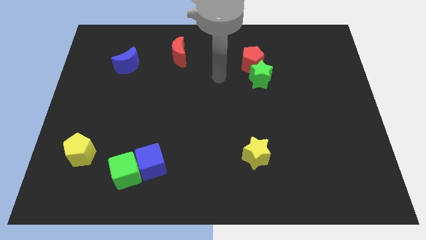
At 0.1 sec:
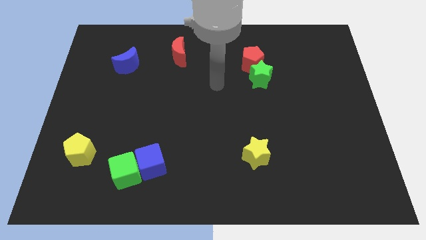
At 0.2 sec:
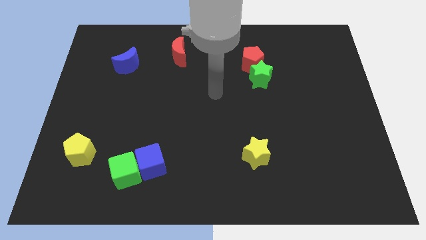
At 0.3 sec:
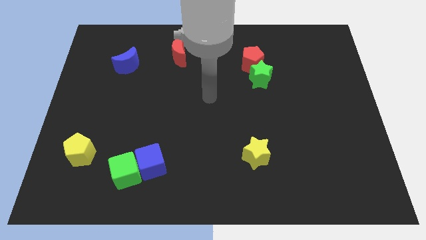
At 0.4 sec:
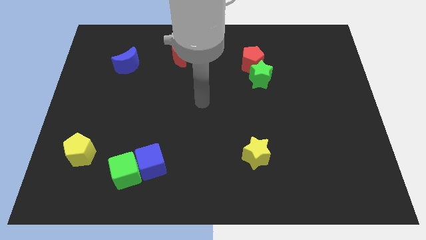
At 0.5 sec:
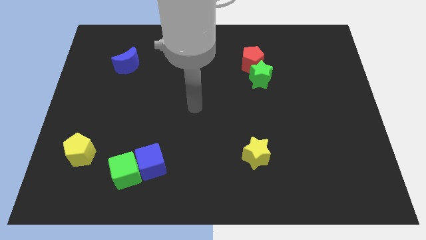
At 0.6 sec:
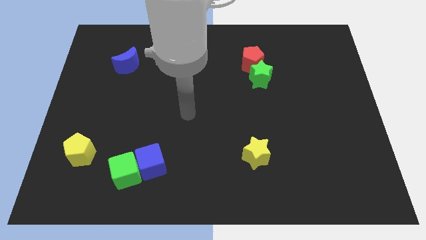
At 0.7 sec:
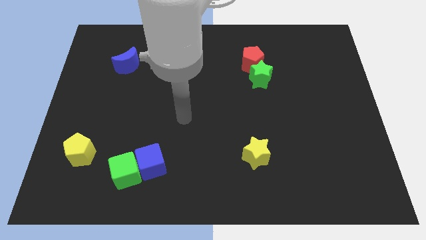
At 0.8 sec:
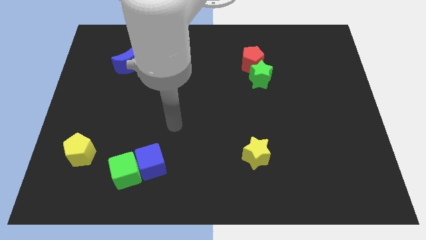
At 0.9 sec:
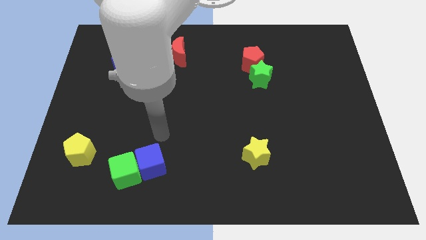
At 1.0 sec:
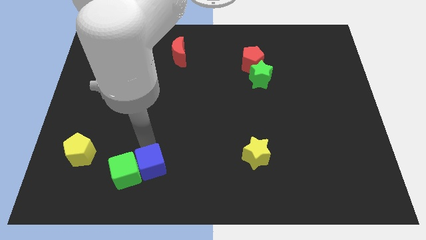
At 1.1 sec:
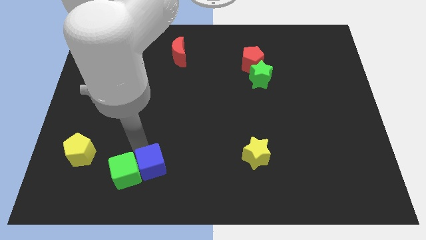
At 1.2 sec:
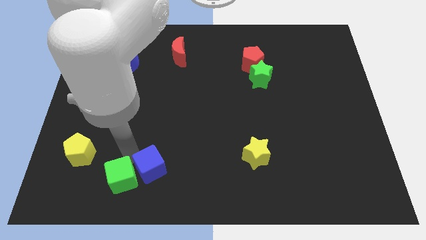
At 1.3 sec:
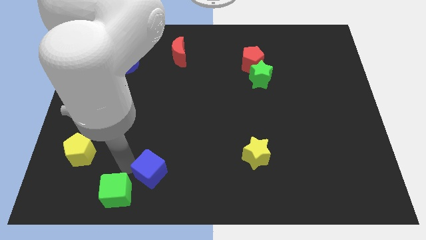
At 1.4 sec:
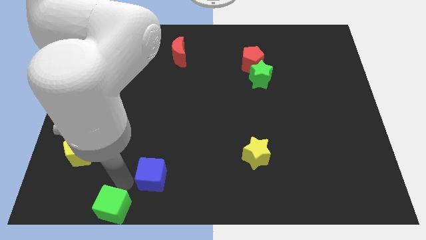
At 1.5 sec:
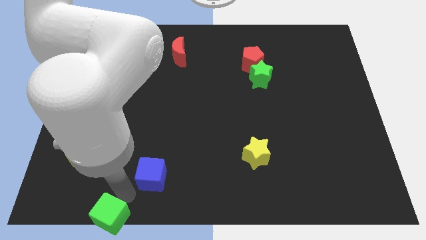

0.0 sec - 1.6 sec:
move the blue cube away from the green cube

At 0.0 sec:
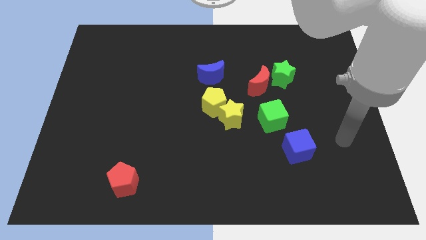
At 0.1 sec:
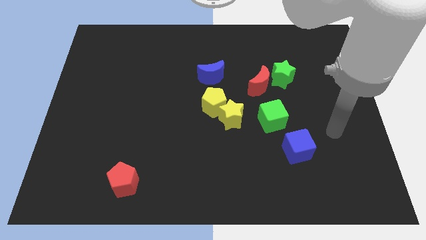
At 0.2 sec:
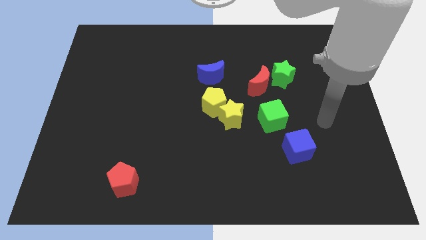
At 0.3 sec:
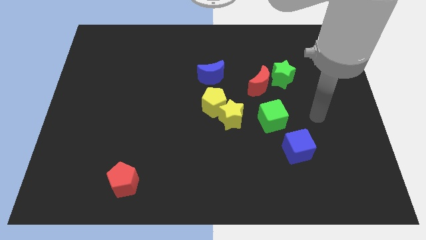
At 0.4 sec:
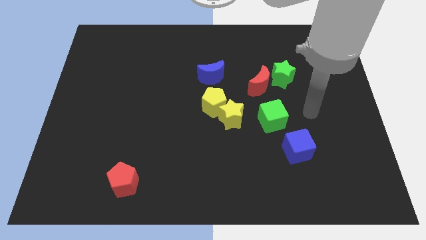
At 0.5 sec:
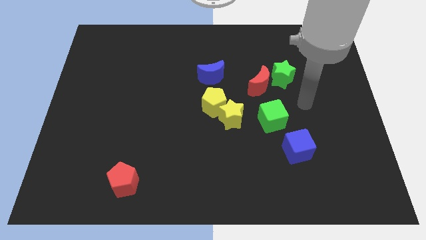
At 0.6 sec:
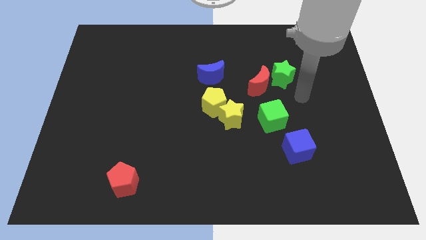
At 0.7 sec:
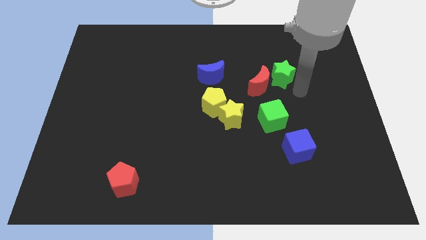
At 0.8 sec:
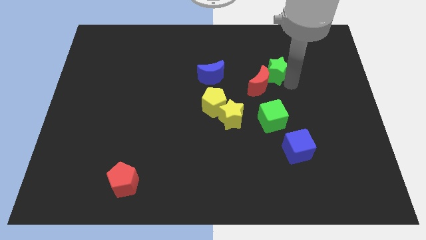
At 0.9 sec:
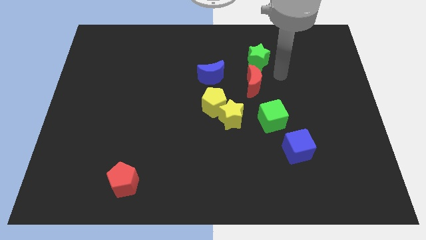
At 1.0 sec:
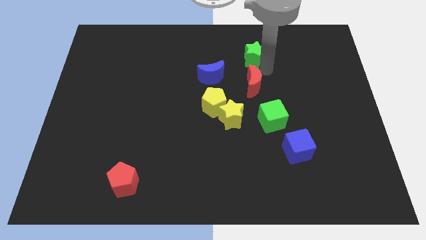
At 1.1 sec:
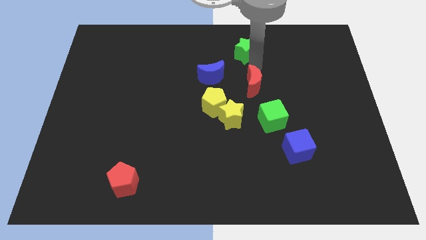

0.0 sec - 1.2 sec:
separate the red moon from the green star

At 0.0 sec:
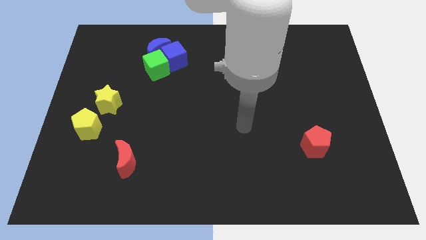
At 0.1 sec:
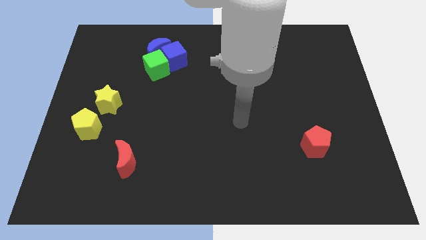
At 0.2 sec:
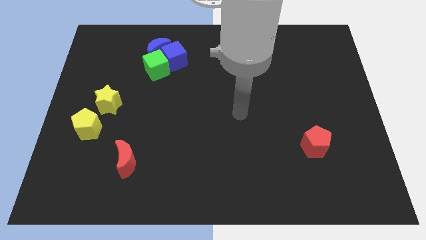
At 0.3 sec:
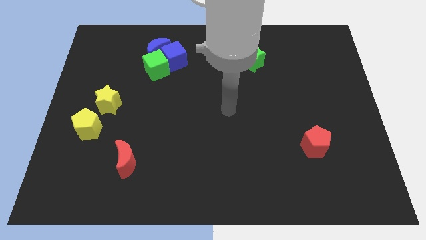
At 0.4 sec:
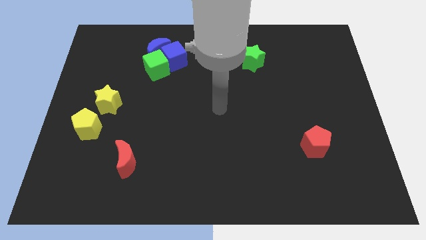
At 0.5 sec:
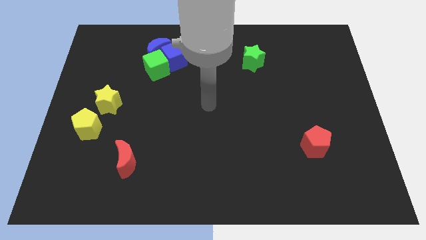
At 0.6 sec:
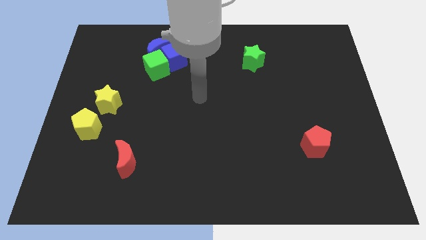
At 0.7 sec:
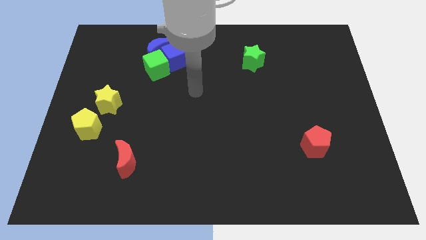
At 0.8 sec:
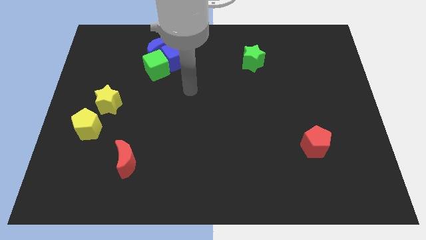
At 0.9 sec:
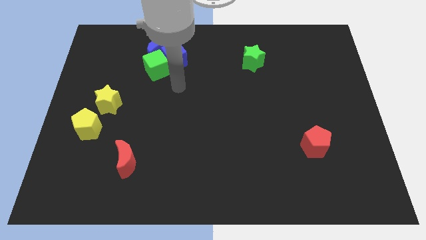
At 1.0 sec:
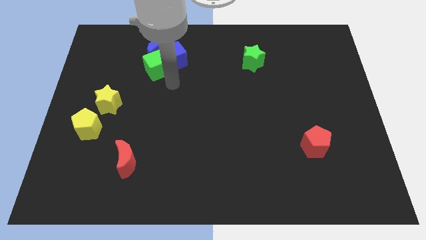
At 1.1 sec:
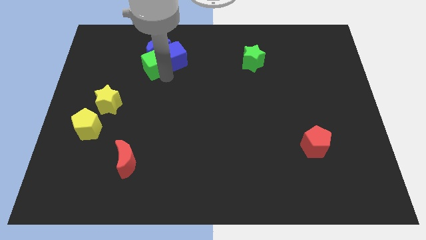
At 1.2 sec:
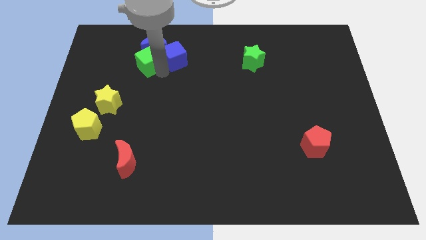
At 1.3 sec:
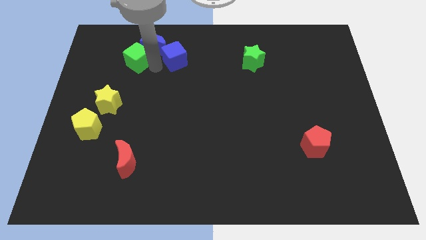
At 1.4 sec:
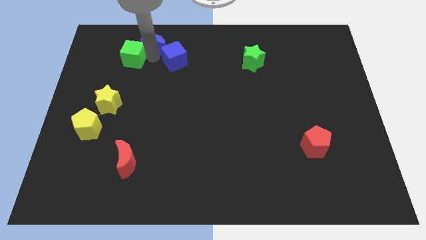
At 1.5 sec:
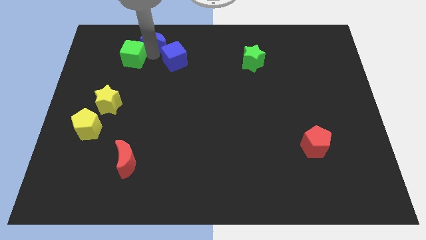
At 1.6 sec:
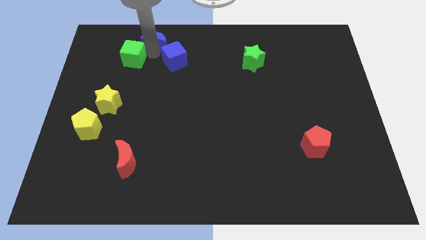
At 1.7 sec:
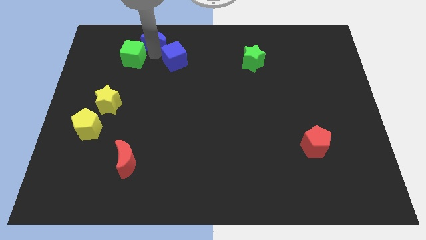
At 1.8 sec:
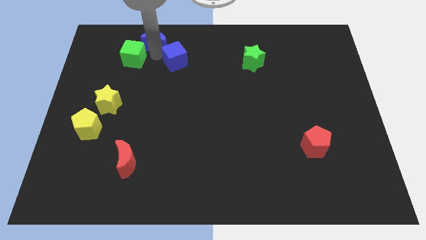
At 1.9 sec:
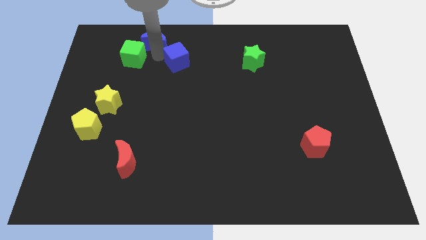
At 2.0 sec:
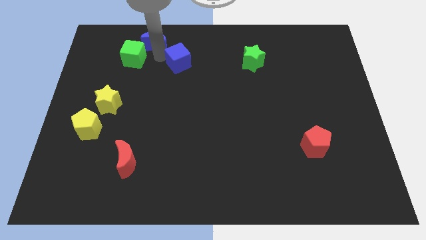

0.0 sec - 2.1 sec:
separate the blue cube from the blue moon and green cube

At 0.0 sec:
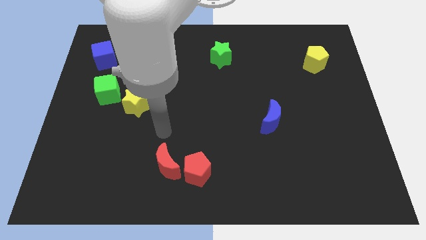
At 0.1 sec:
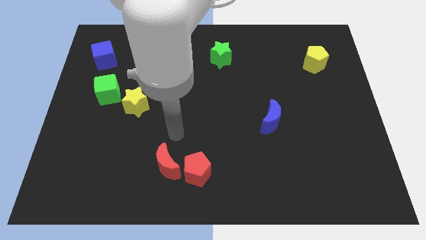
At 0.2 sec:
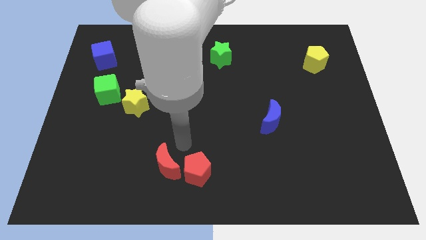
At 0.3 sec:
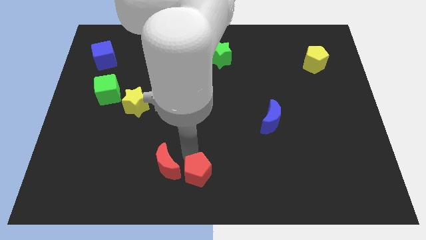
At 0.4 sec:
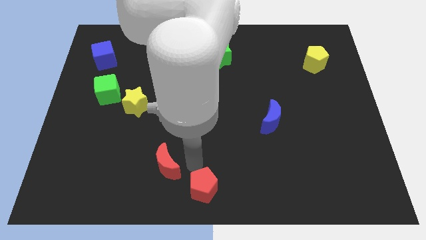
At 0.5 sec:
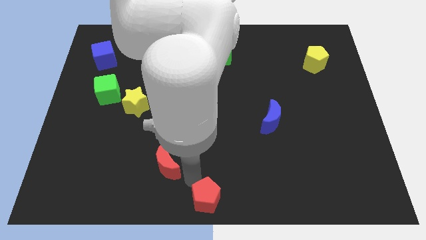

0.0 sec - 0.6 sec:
separate the red moon from the red pentagon

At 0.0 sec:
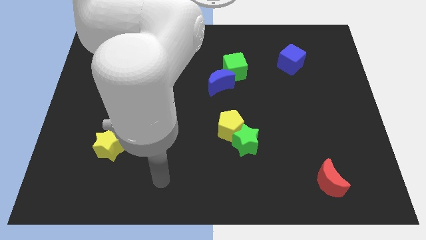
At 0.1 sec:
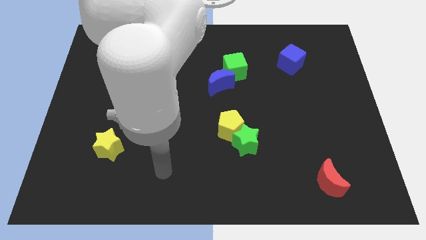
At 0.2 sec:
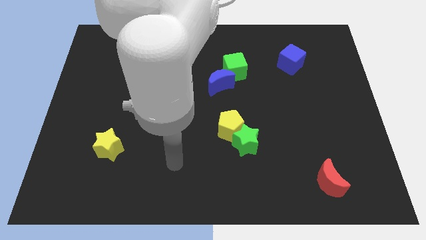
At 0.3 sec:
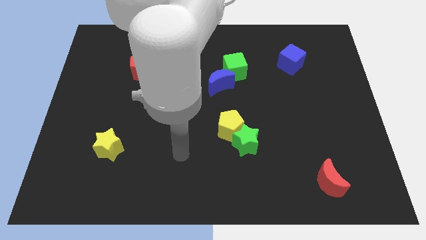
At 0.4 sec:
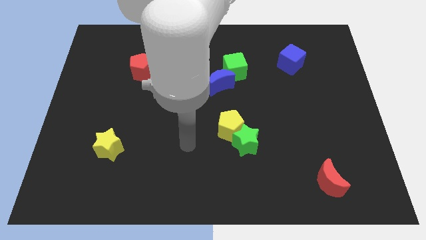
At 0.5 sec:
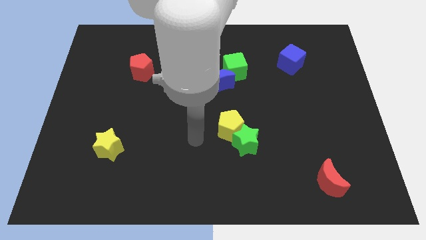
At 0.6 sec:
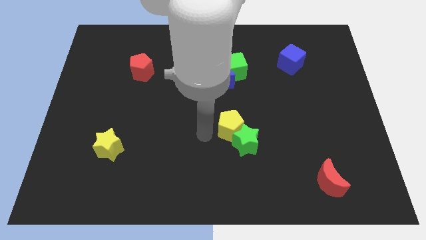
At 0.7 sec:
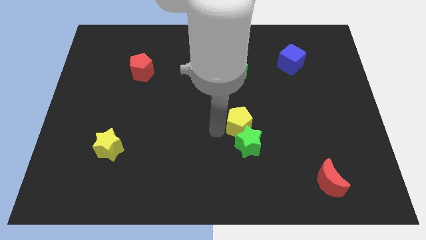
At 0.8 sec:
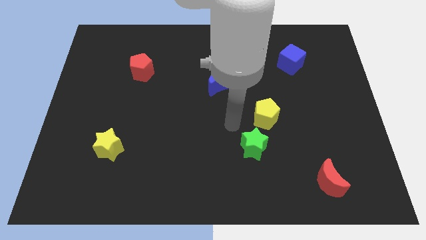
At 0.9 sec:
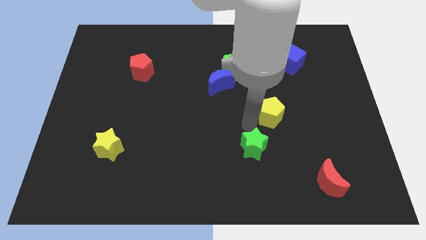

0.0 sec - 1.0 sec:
pull the green star apart from the yellow pentagon

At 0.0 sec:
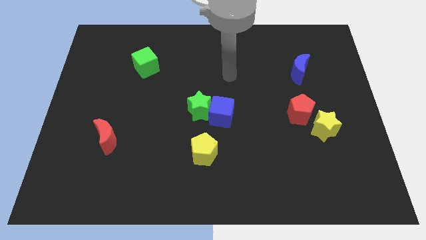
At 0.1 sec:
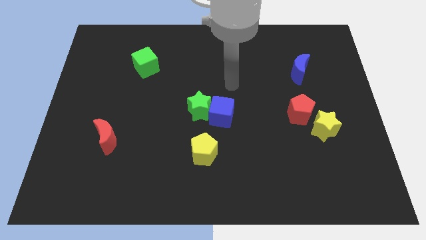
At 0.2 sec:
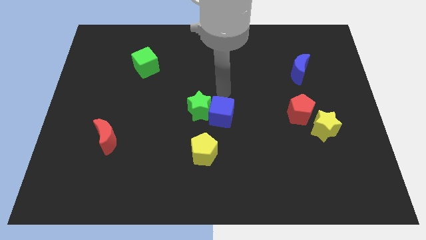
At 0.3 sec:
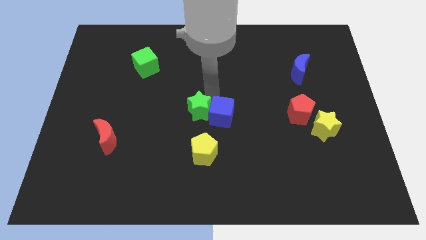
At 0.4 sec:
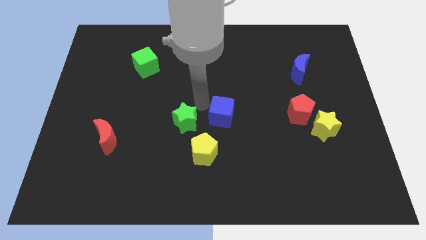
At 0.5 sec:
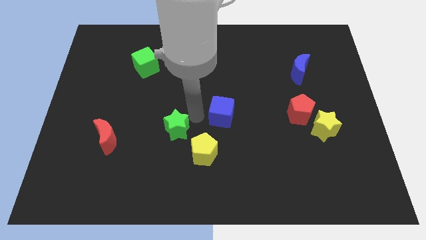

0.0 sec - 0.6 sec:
move the blue cube away from the green star

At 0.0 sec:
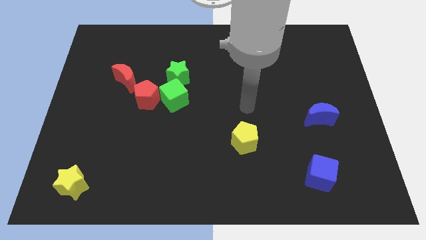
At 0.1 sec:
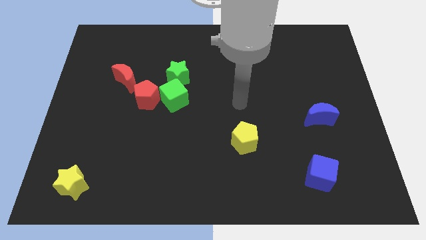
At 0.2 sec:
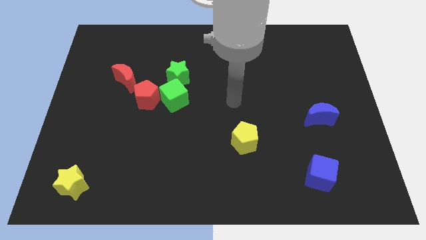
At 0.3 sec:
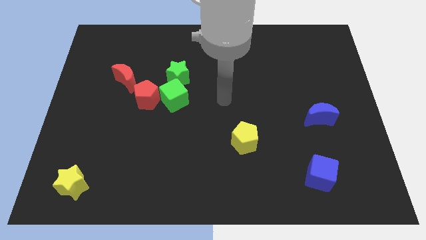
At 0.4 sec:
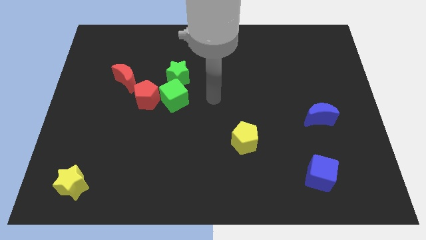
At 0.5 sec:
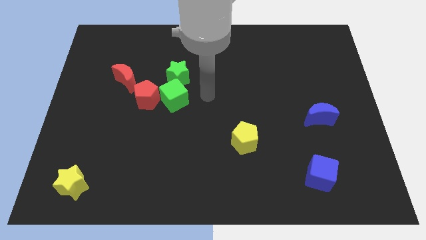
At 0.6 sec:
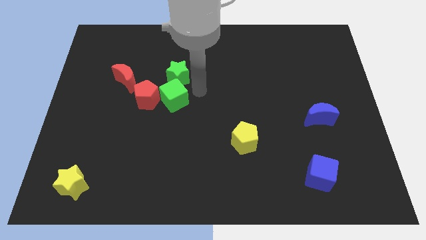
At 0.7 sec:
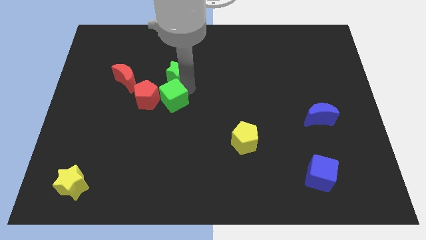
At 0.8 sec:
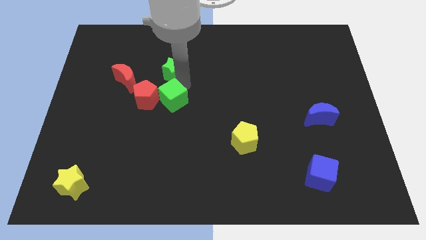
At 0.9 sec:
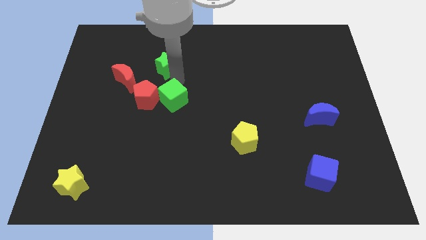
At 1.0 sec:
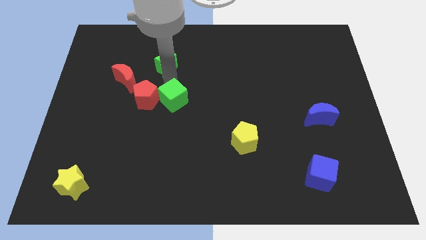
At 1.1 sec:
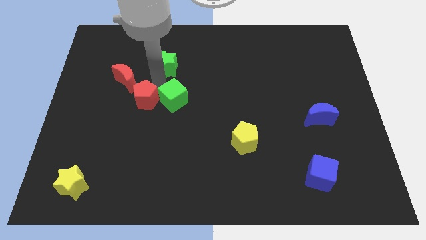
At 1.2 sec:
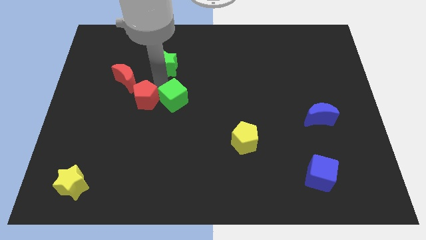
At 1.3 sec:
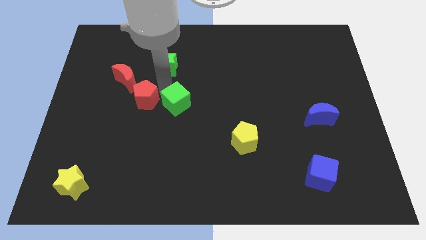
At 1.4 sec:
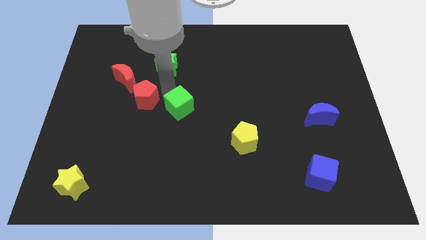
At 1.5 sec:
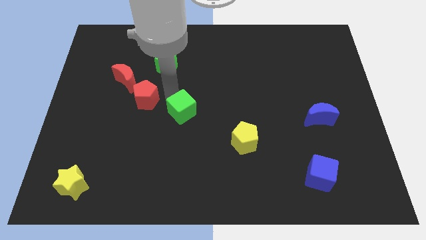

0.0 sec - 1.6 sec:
move the green cube away from the red pentagon and green star

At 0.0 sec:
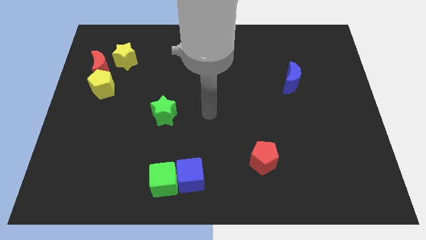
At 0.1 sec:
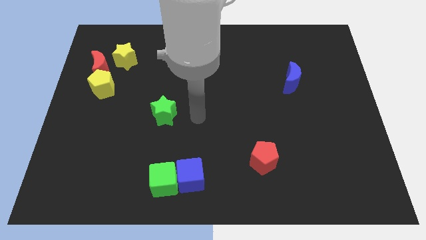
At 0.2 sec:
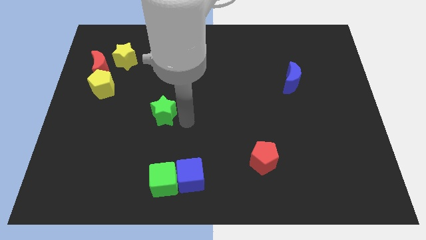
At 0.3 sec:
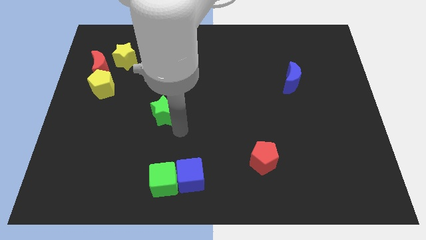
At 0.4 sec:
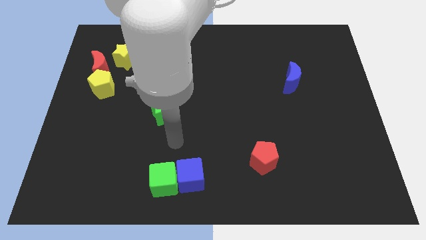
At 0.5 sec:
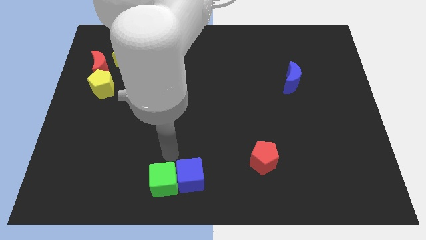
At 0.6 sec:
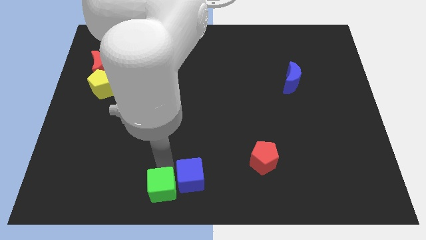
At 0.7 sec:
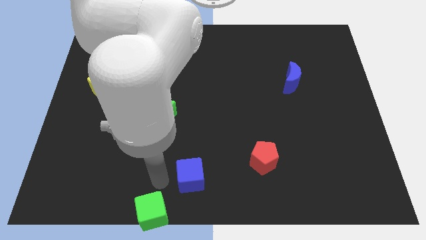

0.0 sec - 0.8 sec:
pull the blue cube apart from the green cube
